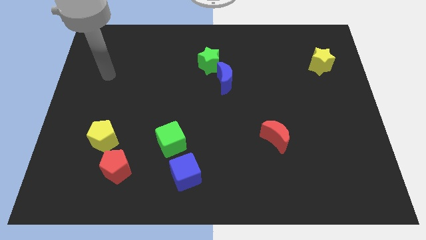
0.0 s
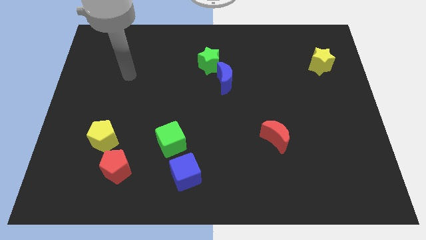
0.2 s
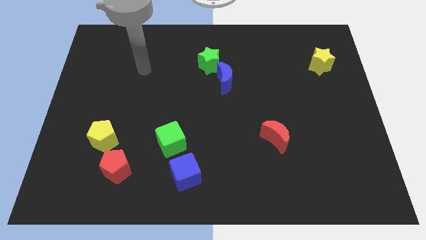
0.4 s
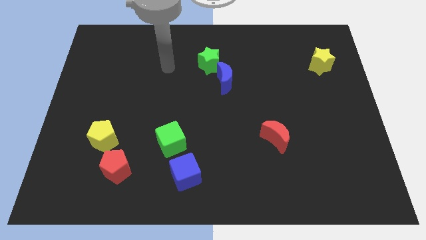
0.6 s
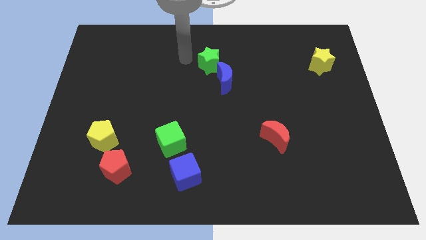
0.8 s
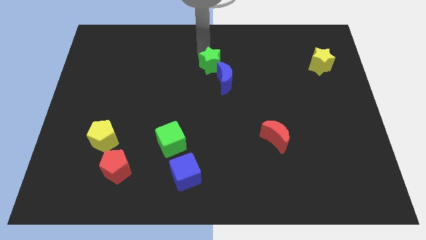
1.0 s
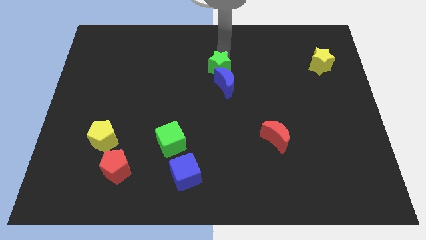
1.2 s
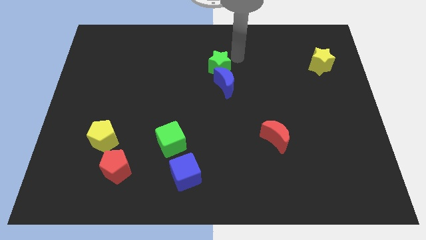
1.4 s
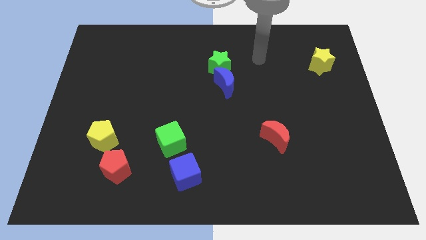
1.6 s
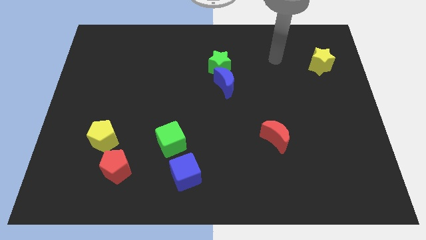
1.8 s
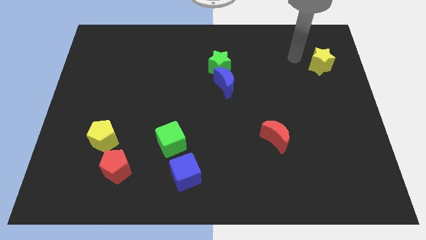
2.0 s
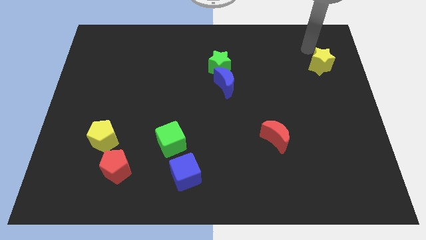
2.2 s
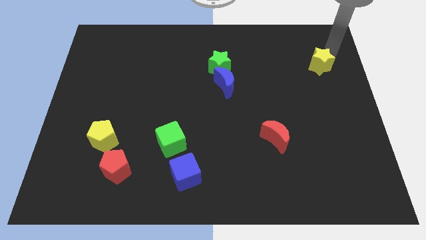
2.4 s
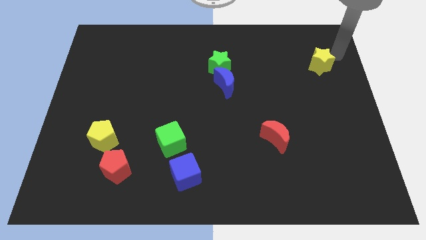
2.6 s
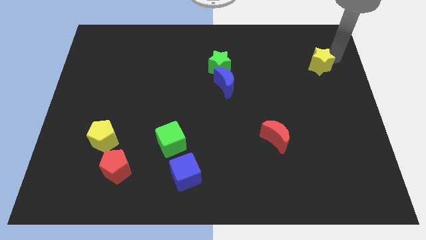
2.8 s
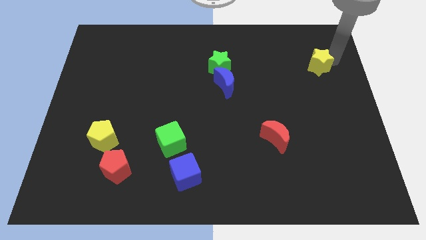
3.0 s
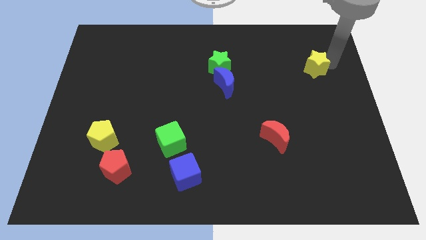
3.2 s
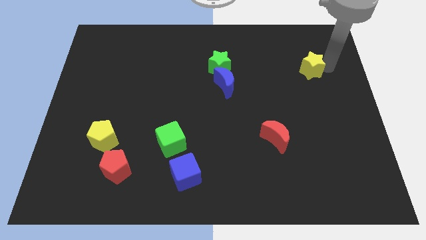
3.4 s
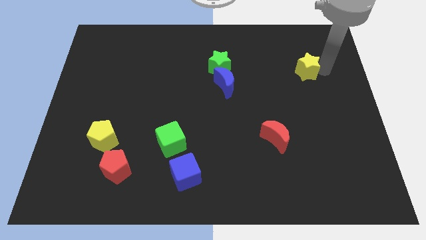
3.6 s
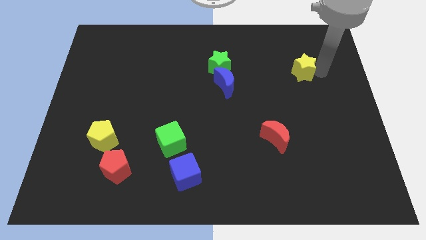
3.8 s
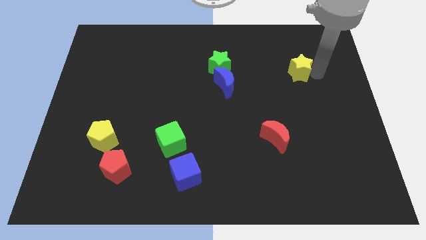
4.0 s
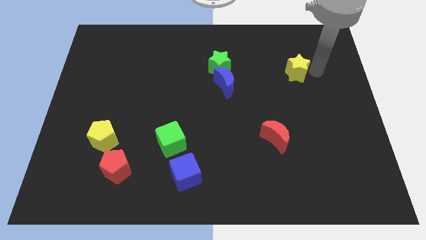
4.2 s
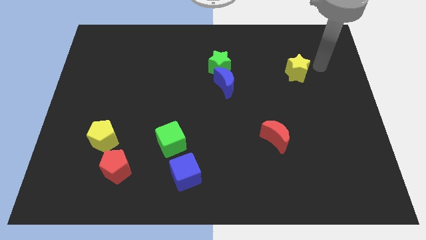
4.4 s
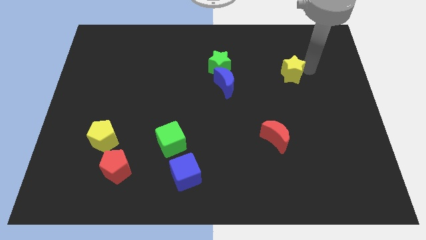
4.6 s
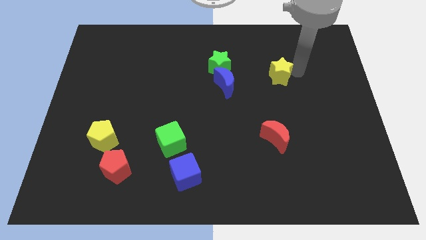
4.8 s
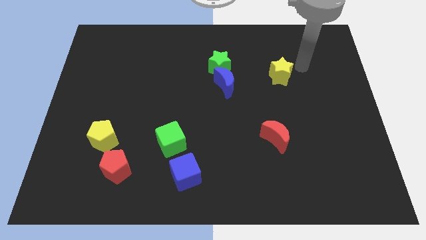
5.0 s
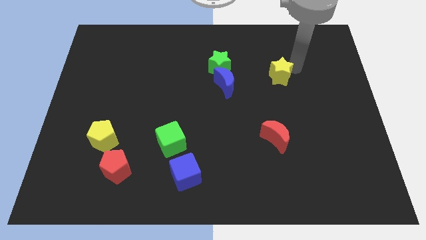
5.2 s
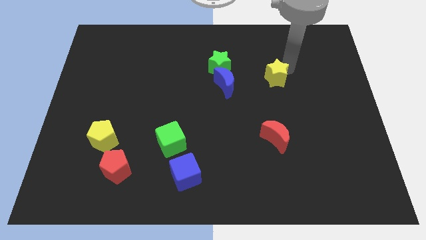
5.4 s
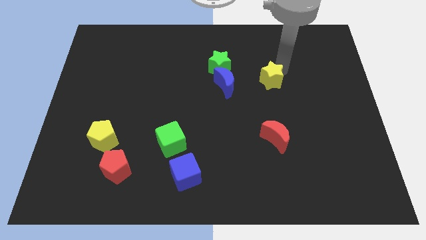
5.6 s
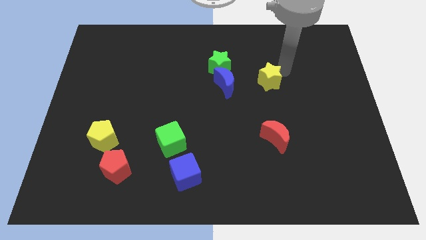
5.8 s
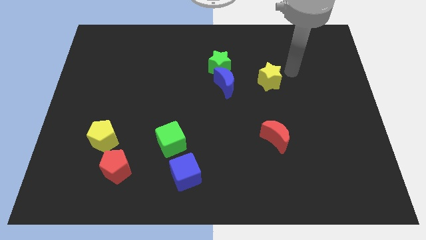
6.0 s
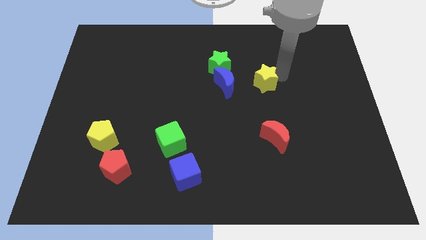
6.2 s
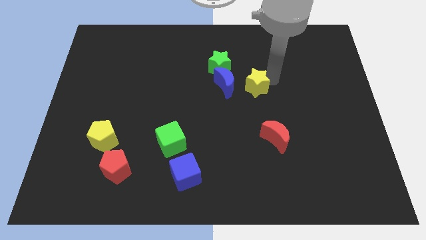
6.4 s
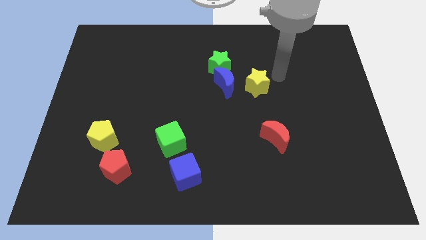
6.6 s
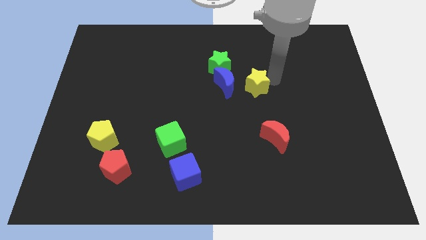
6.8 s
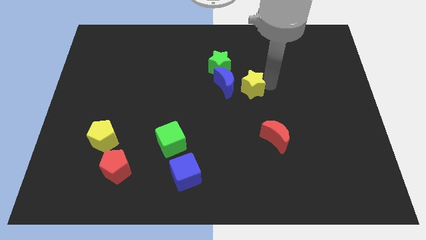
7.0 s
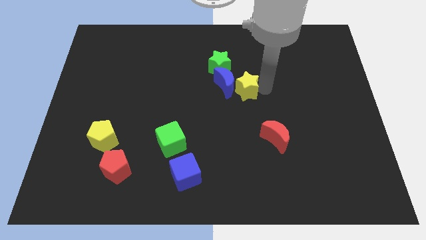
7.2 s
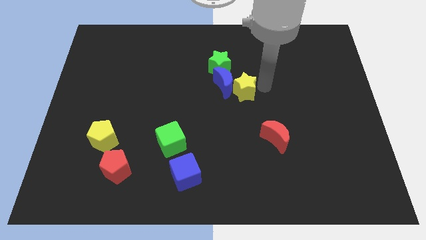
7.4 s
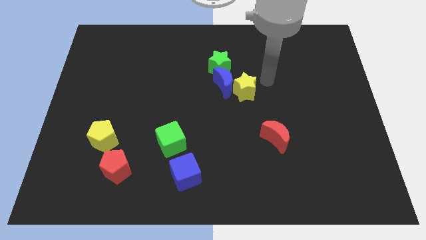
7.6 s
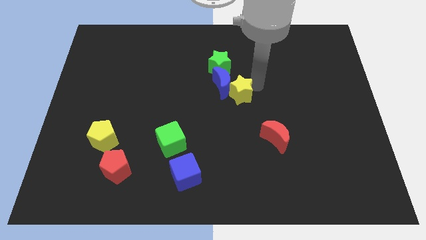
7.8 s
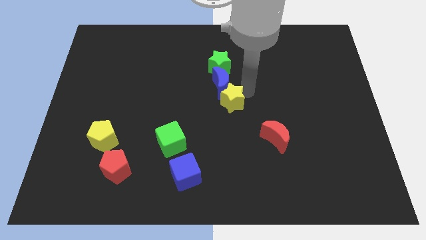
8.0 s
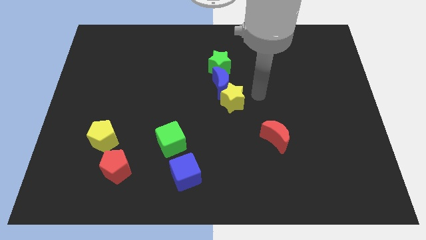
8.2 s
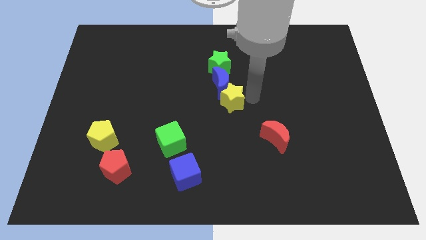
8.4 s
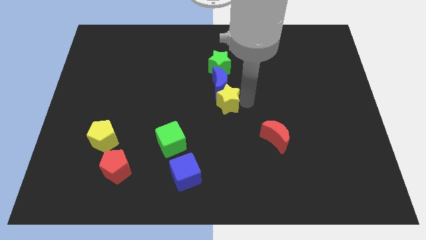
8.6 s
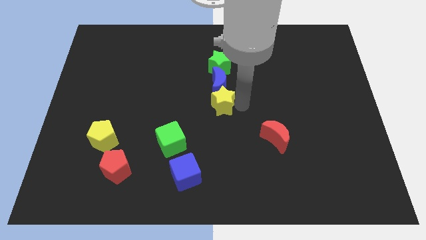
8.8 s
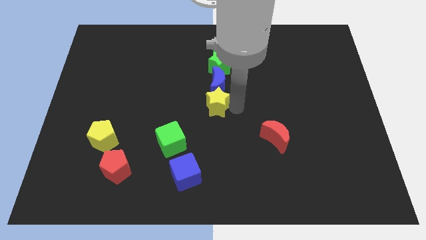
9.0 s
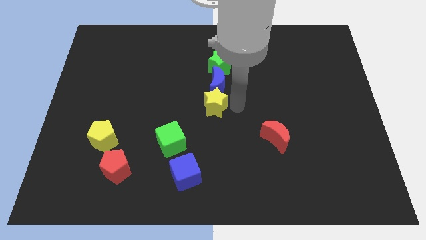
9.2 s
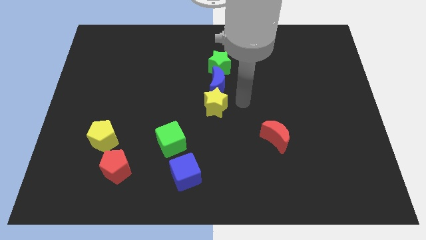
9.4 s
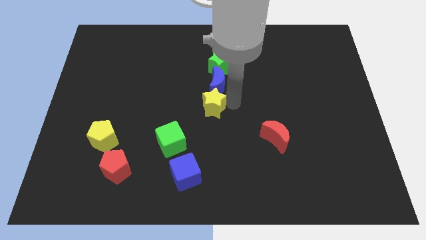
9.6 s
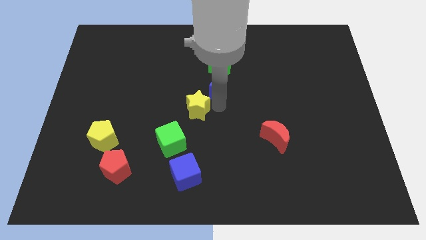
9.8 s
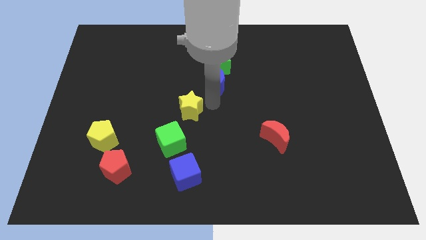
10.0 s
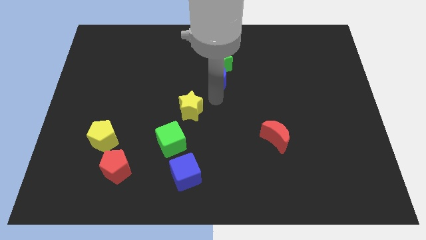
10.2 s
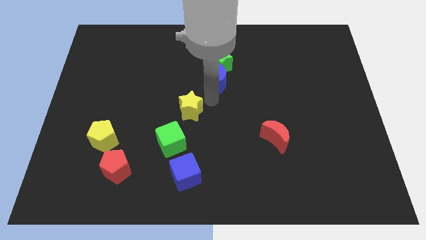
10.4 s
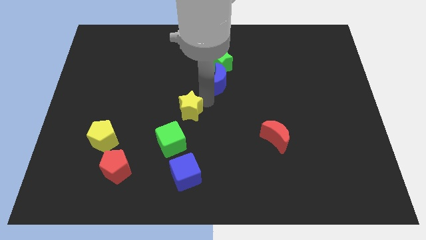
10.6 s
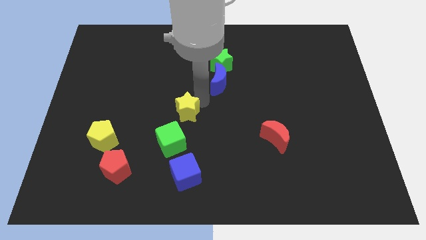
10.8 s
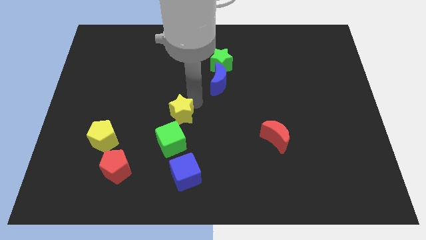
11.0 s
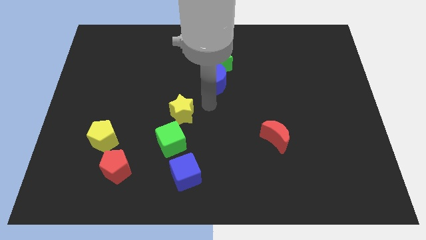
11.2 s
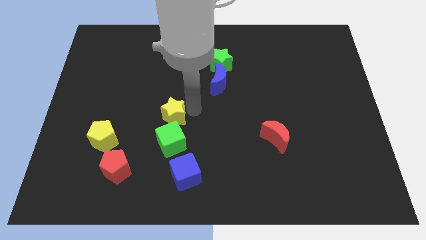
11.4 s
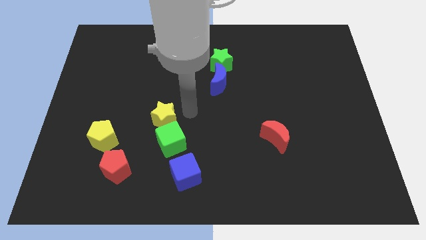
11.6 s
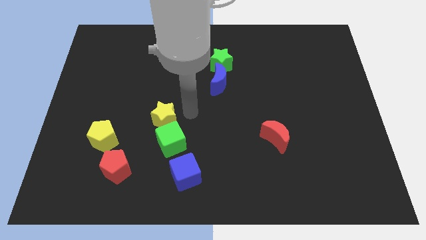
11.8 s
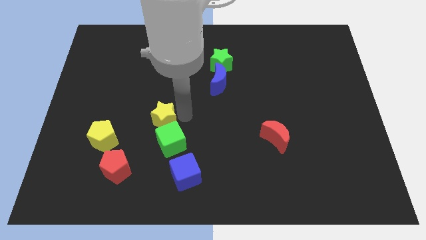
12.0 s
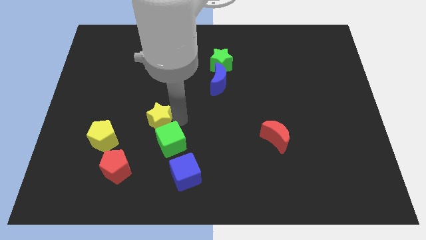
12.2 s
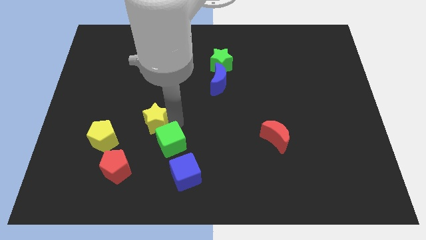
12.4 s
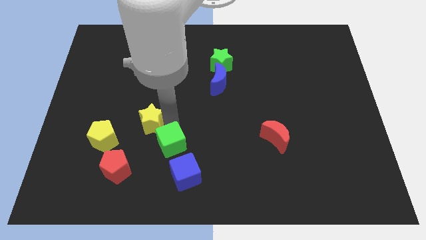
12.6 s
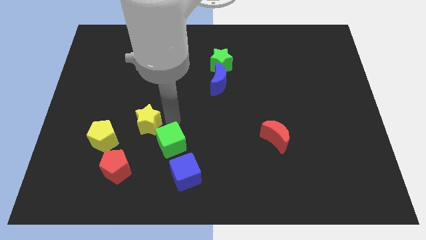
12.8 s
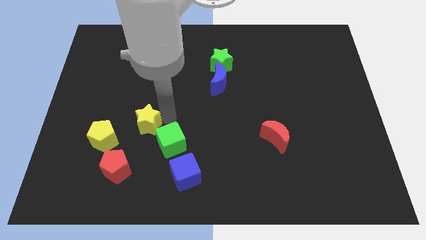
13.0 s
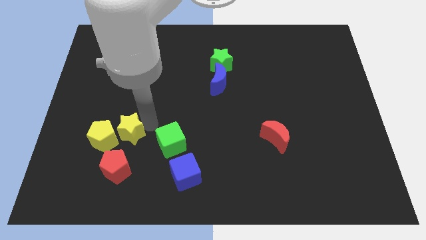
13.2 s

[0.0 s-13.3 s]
push the yellow star close to the yellow pentagon

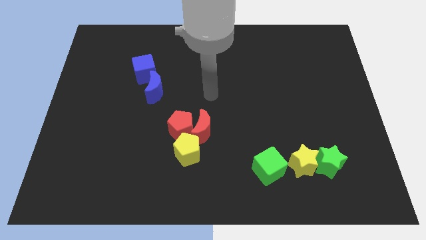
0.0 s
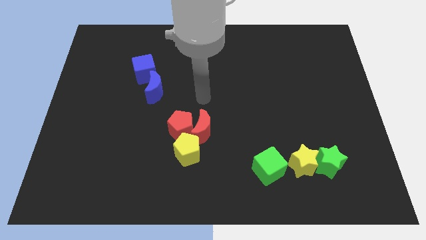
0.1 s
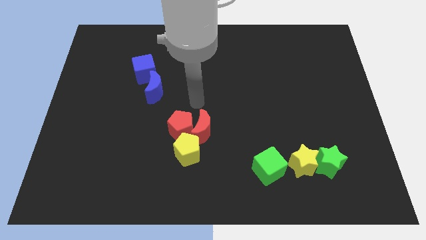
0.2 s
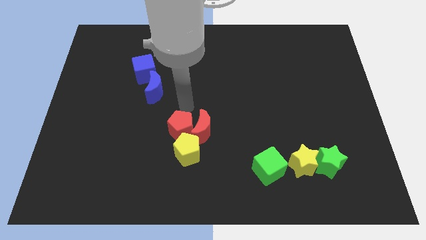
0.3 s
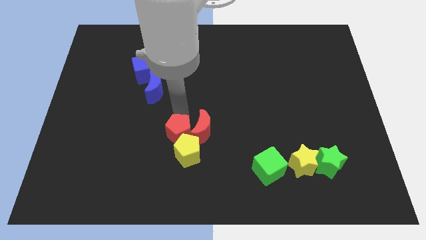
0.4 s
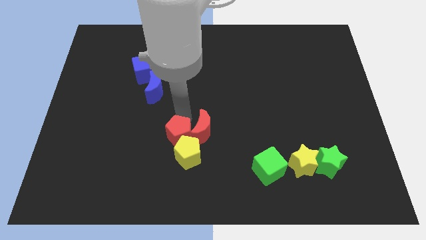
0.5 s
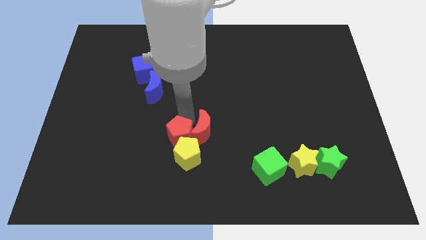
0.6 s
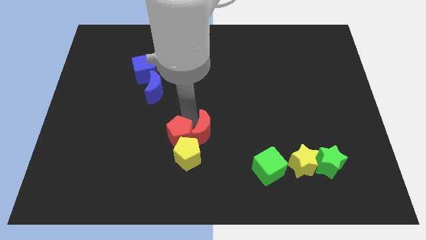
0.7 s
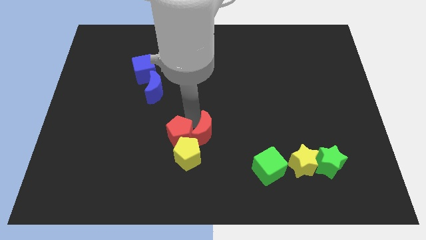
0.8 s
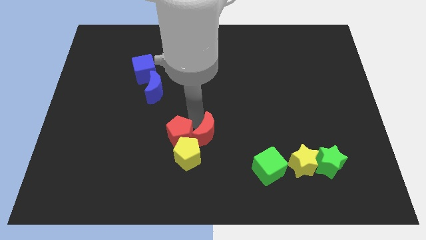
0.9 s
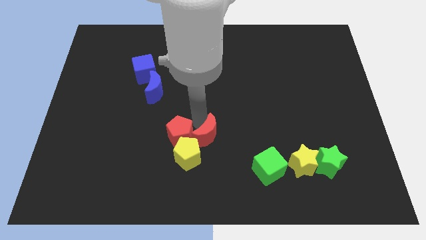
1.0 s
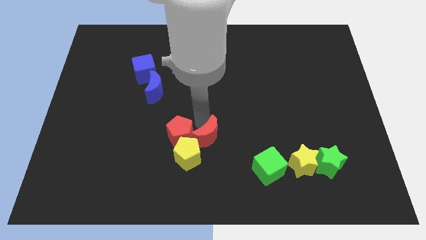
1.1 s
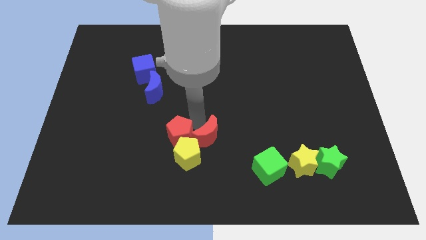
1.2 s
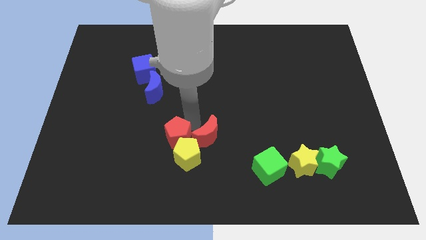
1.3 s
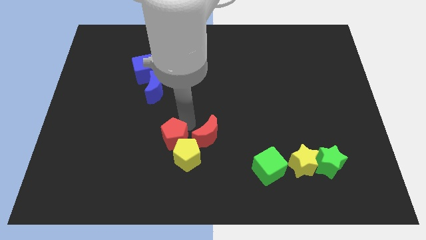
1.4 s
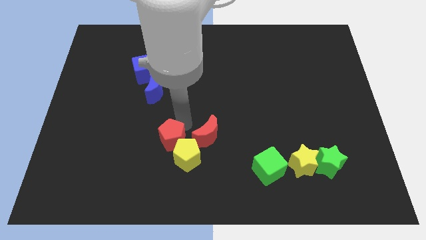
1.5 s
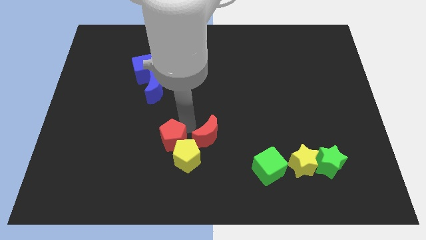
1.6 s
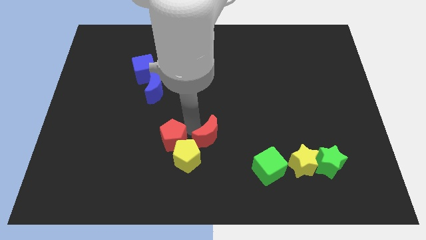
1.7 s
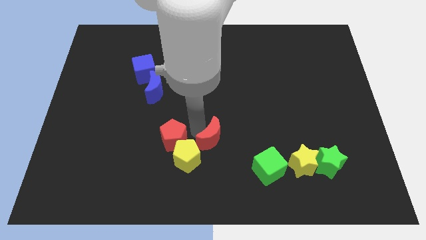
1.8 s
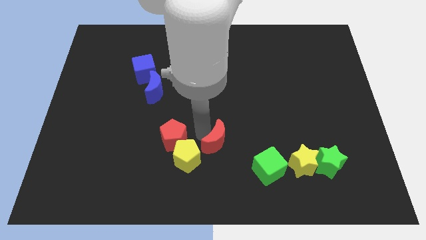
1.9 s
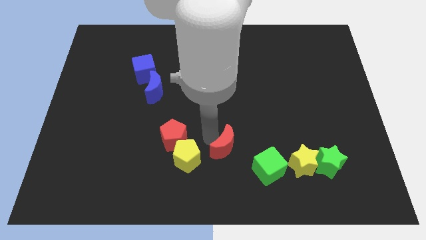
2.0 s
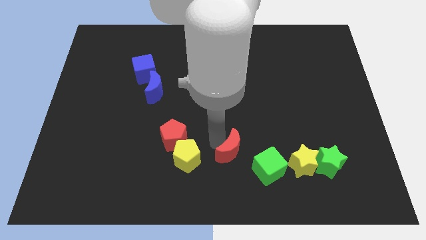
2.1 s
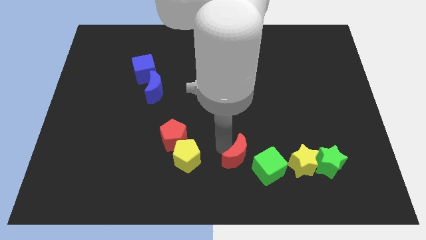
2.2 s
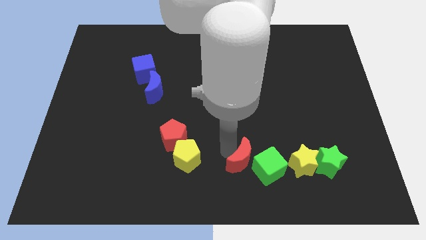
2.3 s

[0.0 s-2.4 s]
slide the red moon next to the green cube
